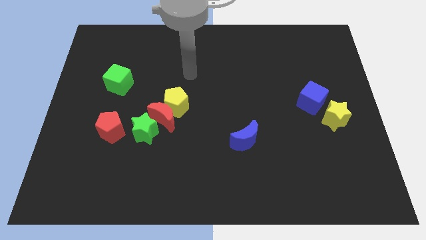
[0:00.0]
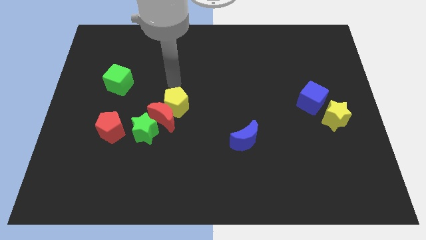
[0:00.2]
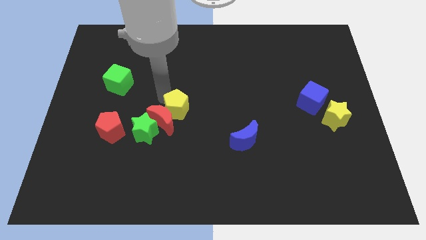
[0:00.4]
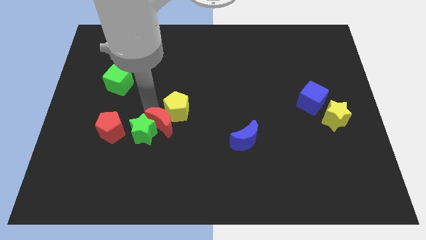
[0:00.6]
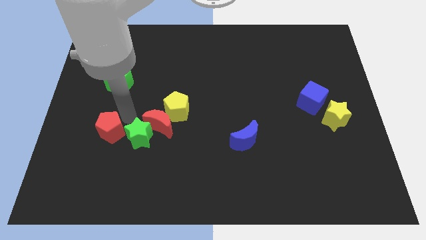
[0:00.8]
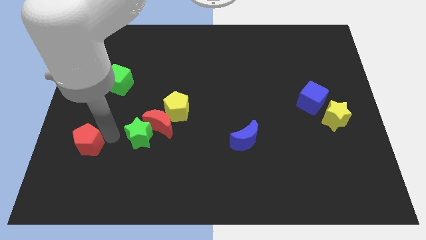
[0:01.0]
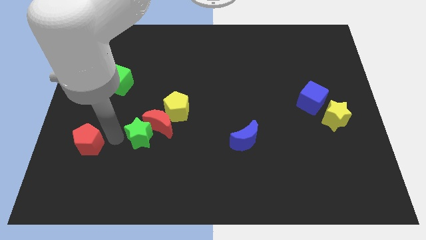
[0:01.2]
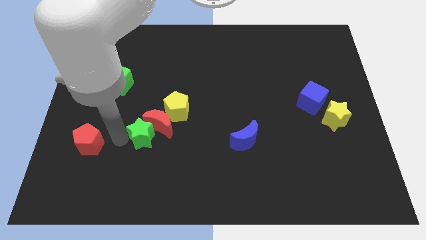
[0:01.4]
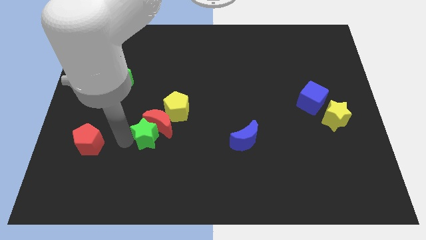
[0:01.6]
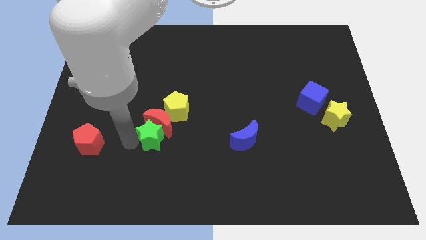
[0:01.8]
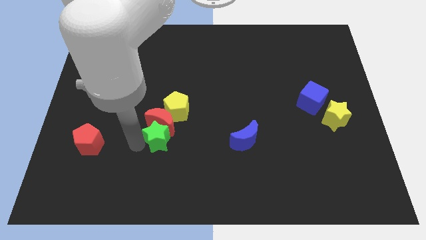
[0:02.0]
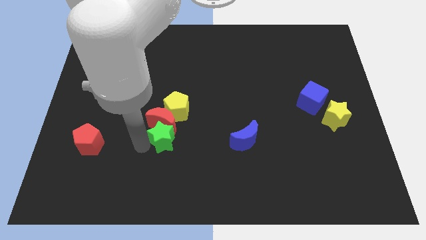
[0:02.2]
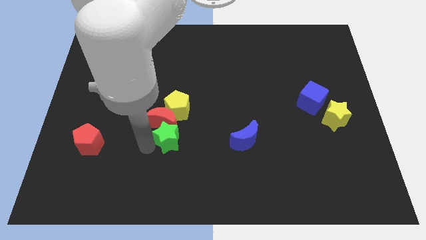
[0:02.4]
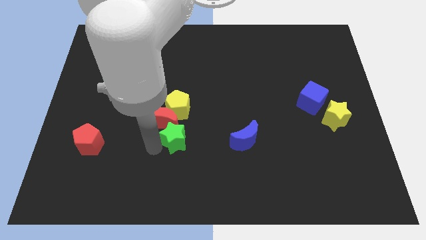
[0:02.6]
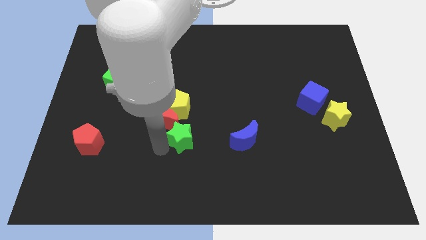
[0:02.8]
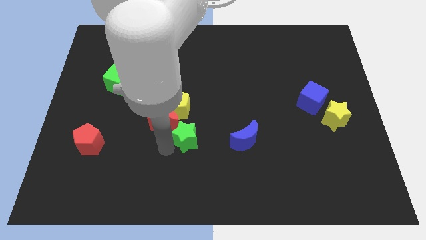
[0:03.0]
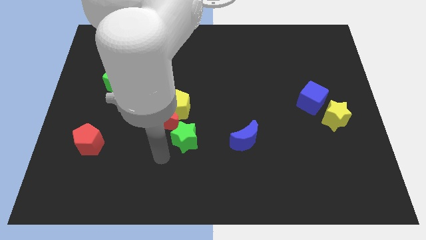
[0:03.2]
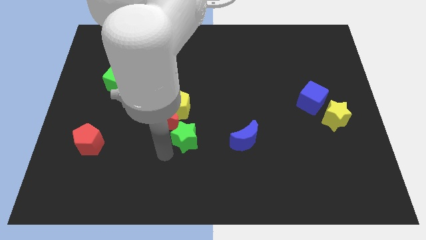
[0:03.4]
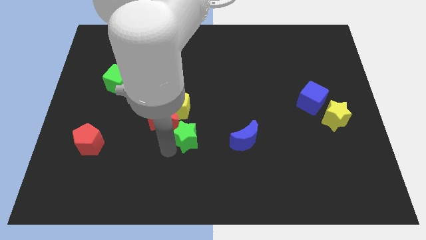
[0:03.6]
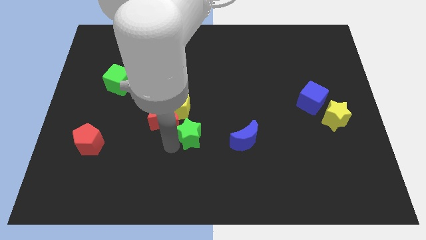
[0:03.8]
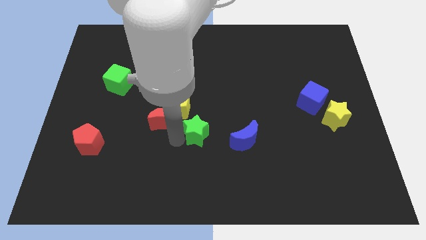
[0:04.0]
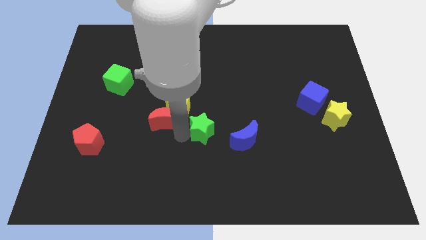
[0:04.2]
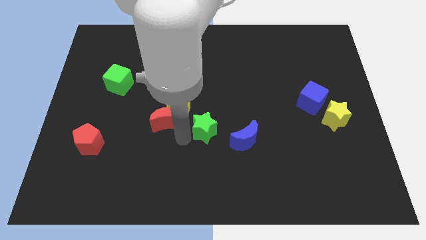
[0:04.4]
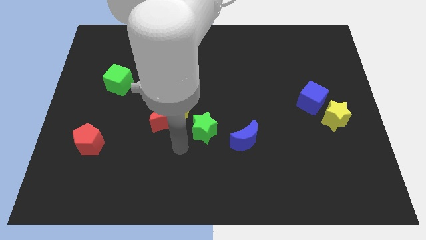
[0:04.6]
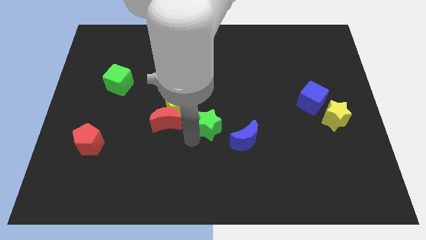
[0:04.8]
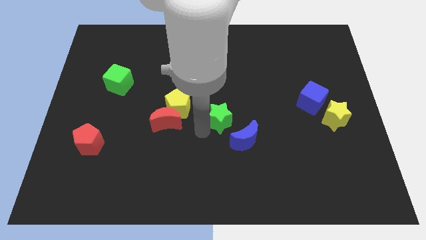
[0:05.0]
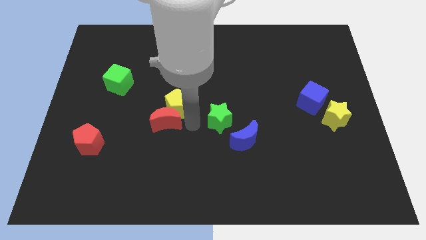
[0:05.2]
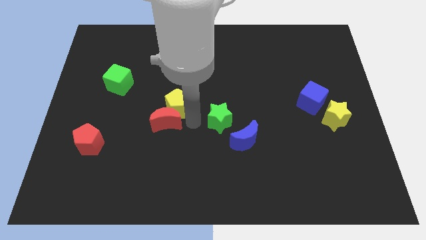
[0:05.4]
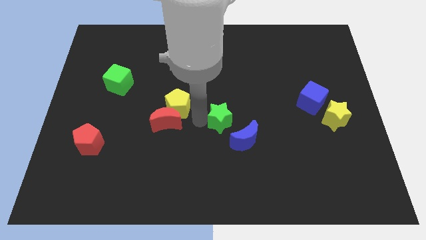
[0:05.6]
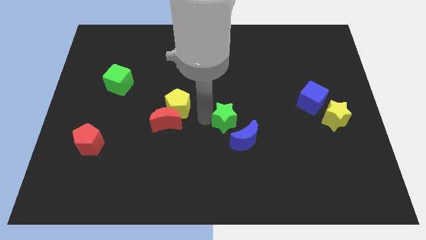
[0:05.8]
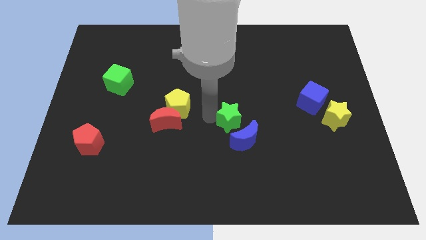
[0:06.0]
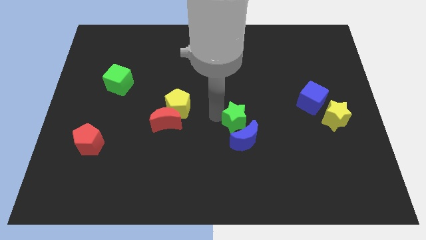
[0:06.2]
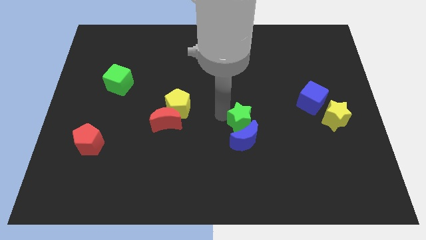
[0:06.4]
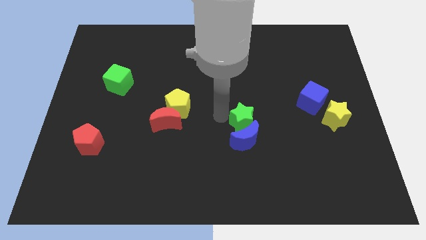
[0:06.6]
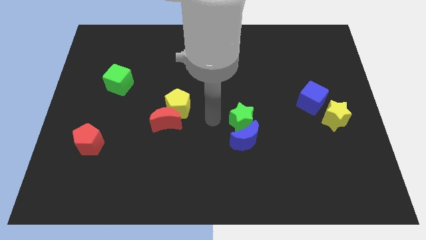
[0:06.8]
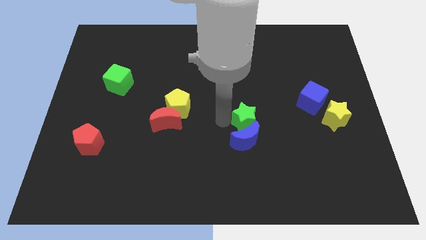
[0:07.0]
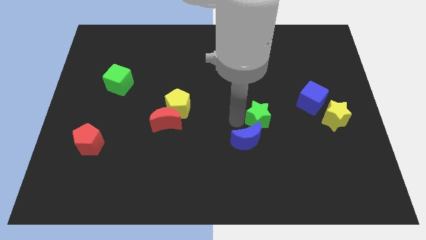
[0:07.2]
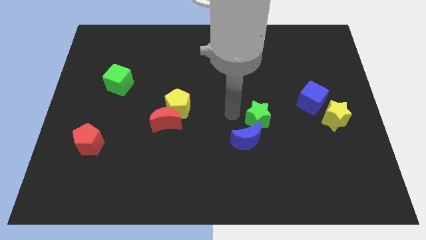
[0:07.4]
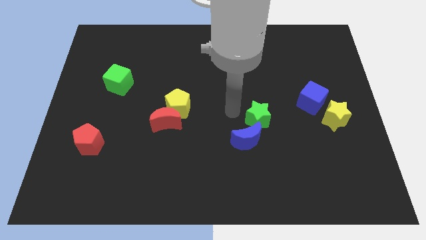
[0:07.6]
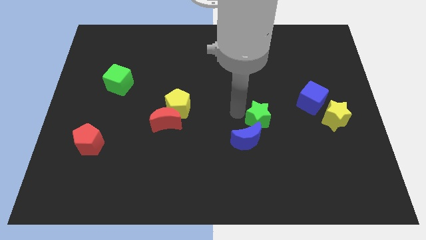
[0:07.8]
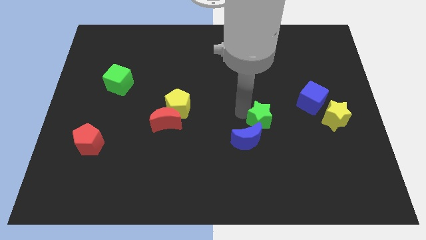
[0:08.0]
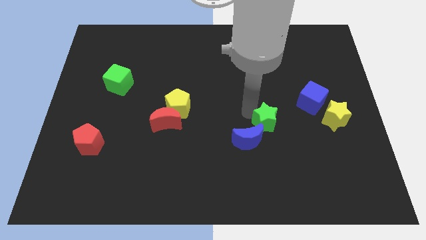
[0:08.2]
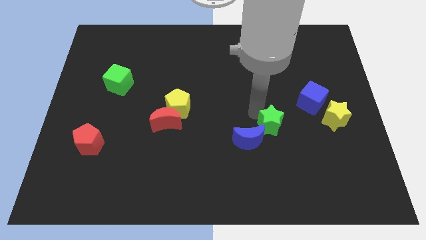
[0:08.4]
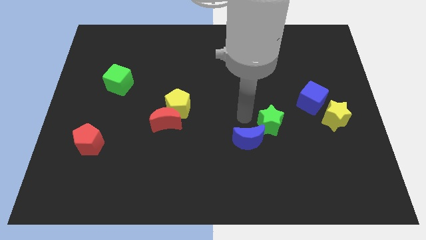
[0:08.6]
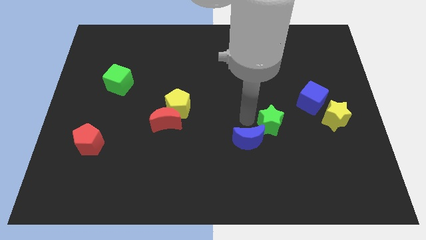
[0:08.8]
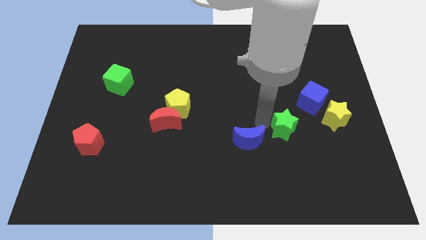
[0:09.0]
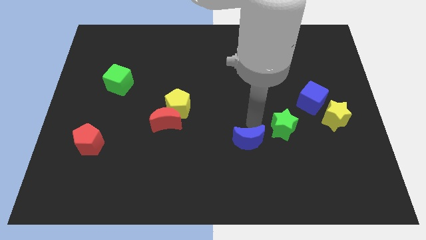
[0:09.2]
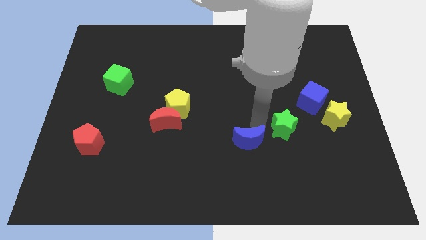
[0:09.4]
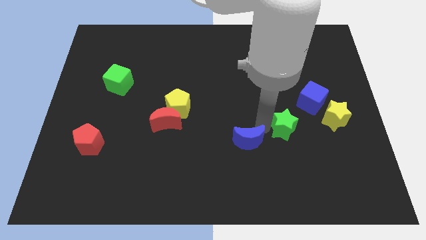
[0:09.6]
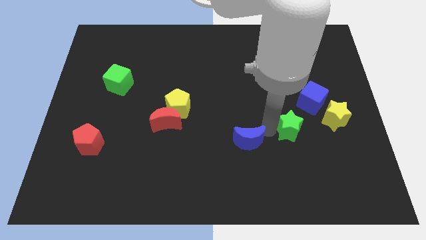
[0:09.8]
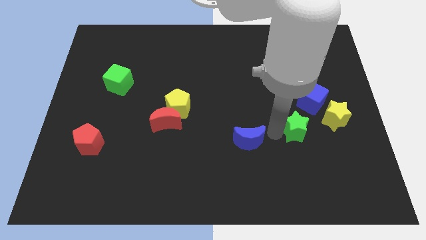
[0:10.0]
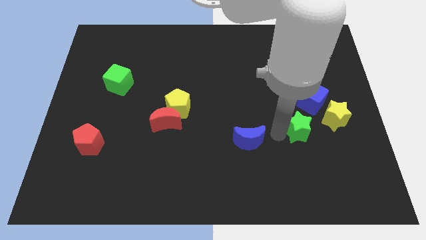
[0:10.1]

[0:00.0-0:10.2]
push the green star to the bottom side of the blue cube

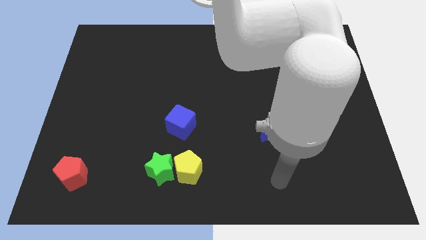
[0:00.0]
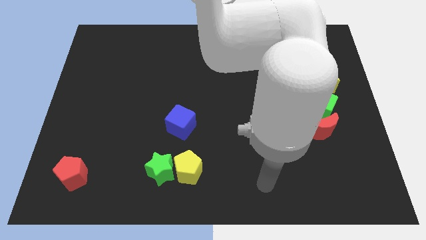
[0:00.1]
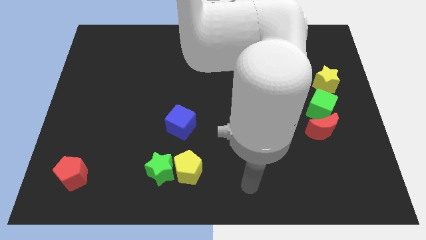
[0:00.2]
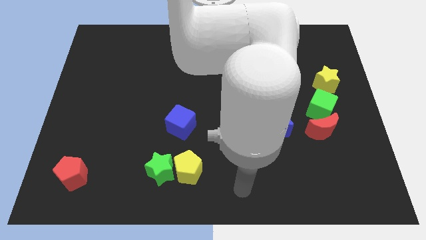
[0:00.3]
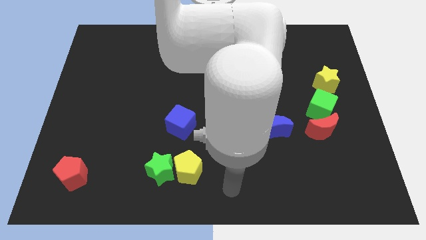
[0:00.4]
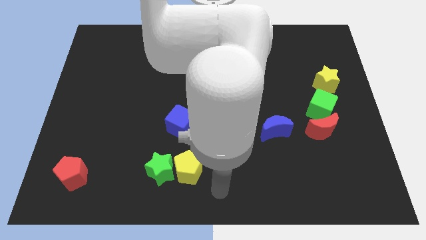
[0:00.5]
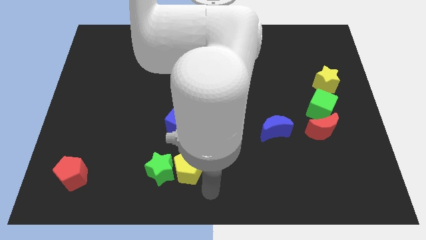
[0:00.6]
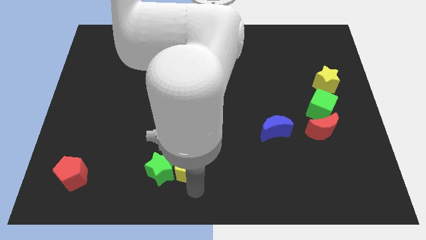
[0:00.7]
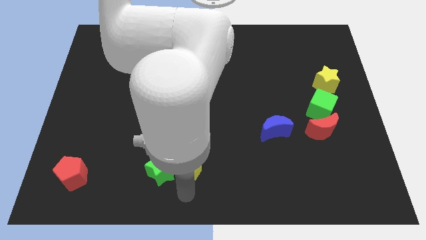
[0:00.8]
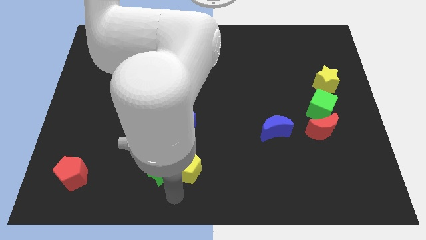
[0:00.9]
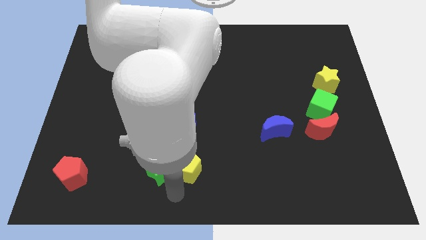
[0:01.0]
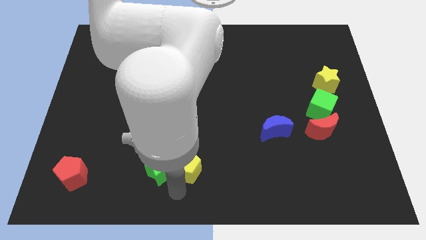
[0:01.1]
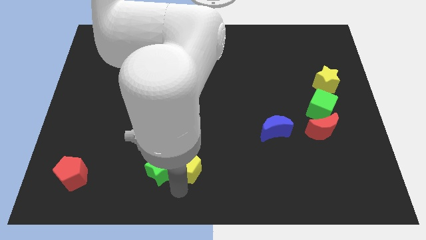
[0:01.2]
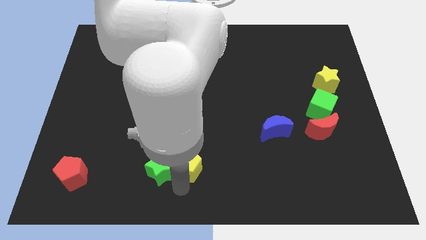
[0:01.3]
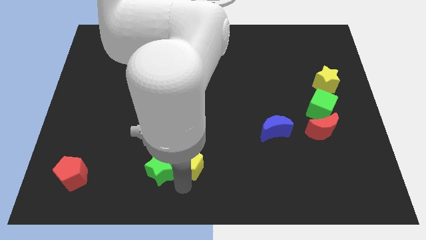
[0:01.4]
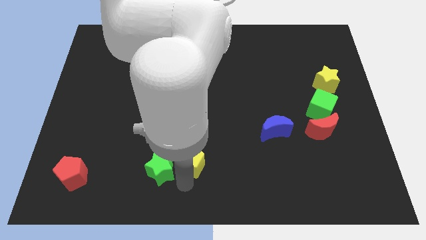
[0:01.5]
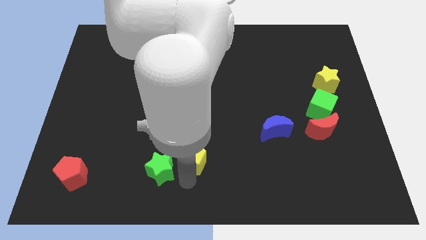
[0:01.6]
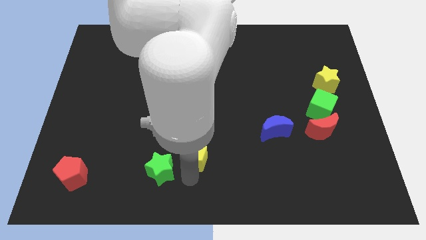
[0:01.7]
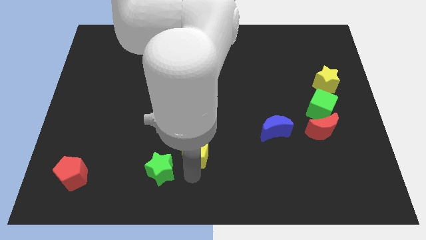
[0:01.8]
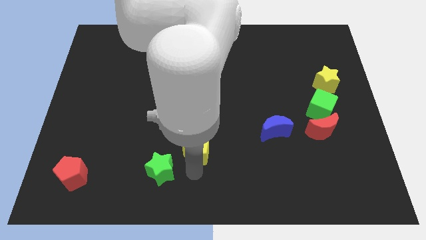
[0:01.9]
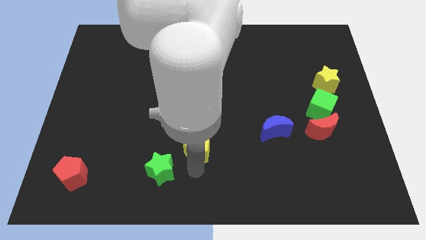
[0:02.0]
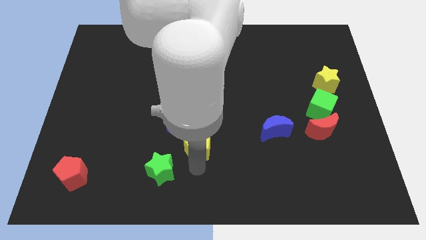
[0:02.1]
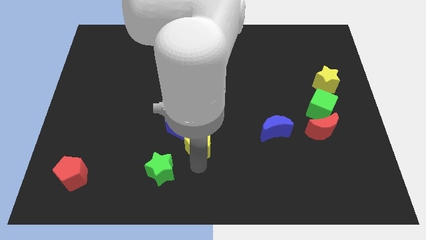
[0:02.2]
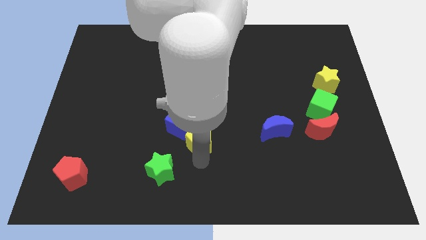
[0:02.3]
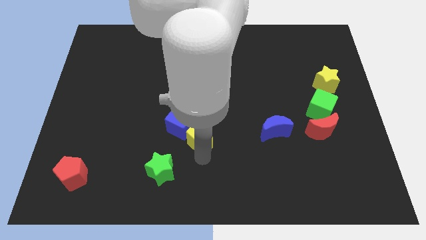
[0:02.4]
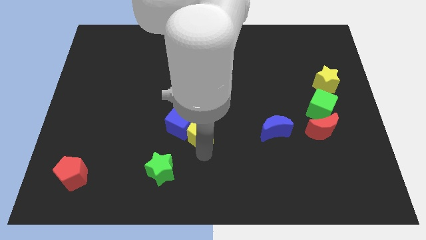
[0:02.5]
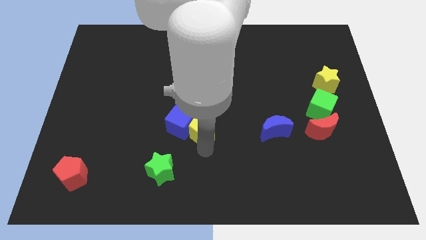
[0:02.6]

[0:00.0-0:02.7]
slide the yellow pentagon diagonally up and to the right of the blue cube
